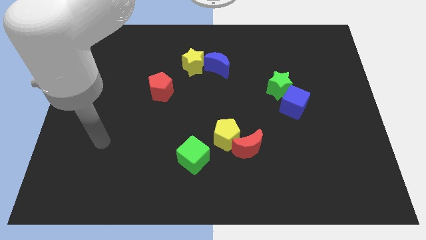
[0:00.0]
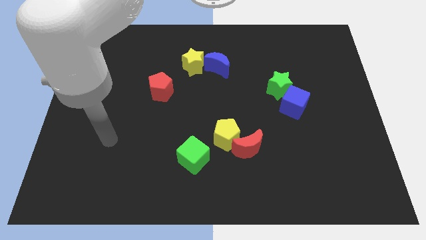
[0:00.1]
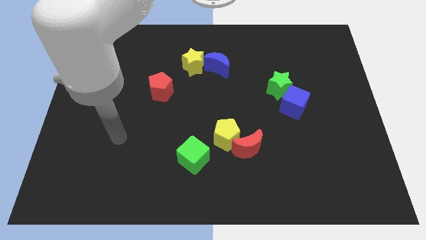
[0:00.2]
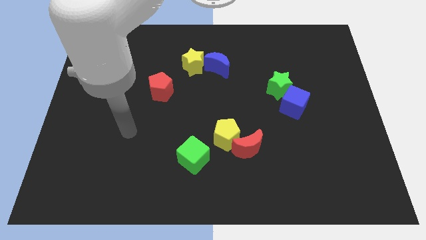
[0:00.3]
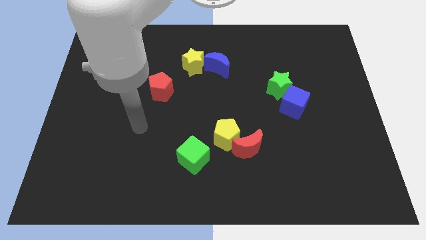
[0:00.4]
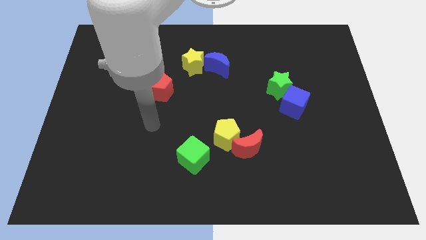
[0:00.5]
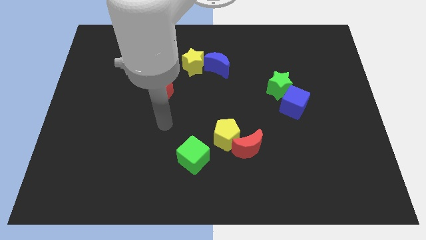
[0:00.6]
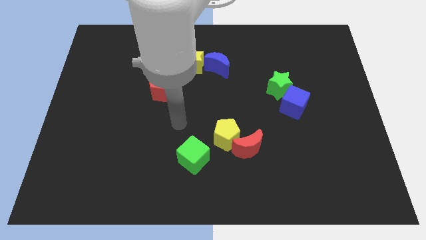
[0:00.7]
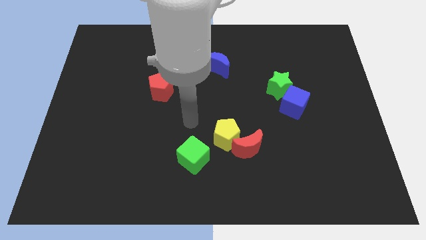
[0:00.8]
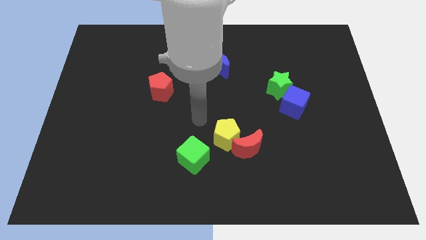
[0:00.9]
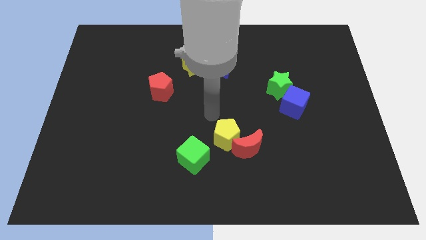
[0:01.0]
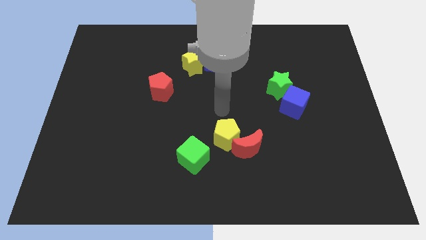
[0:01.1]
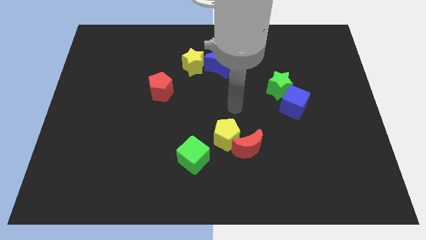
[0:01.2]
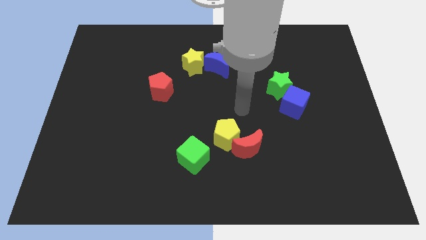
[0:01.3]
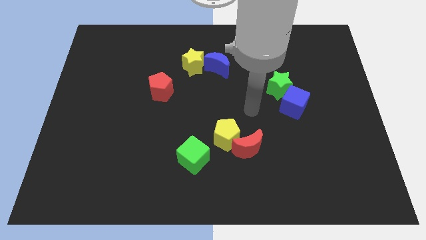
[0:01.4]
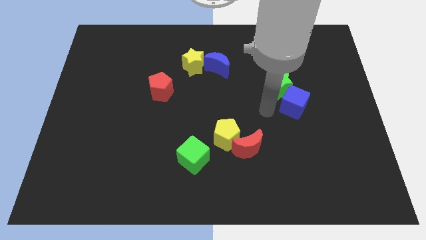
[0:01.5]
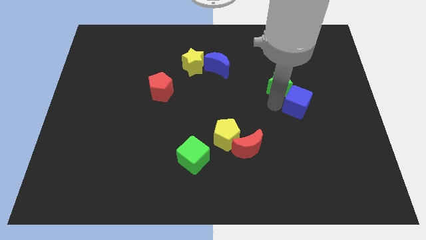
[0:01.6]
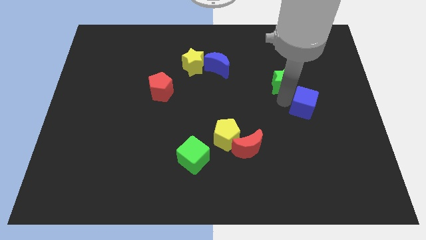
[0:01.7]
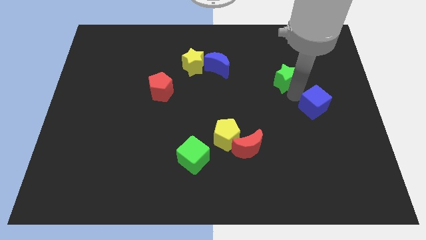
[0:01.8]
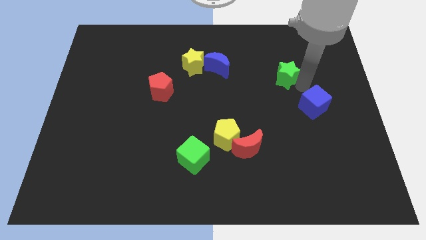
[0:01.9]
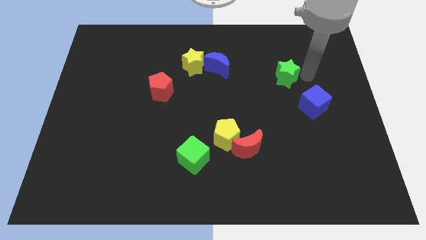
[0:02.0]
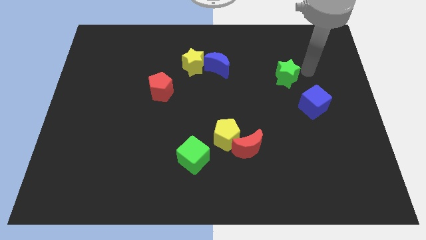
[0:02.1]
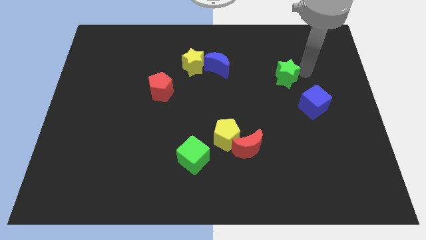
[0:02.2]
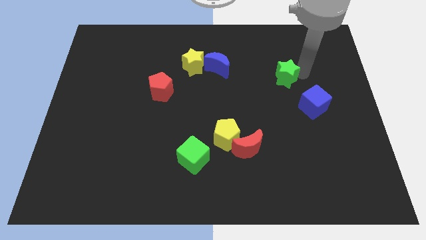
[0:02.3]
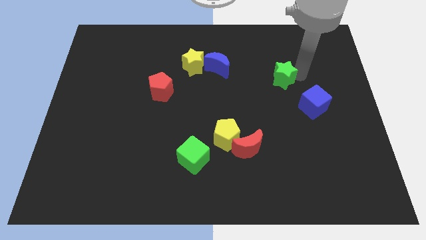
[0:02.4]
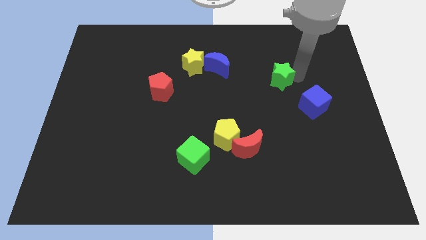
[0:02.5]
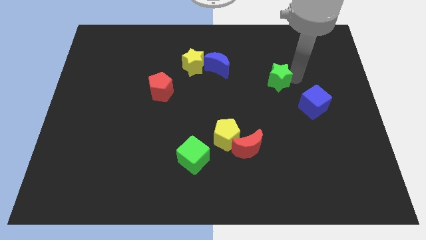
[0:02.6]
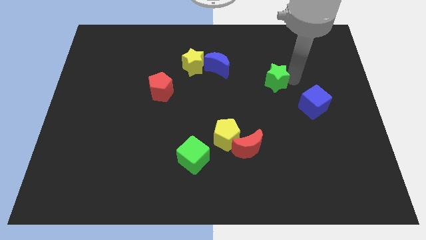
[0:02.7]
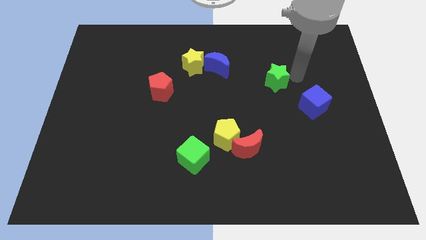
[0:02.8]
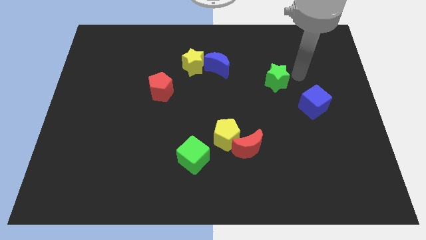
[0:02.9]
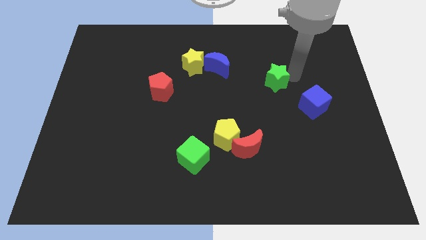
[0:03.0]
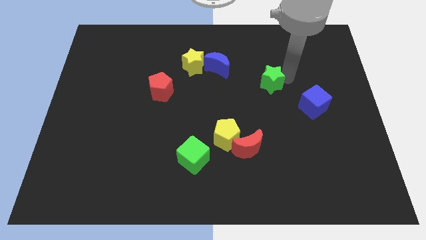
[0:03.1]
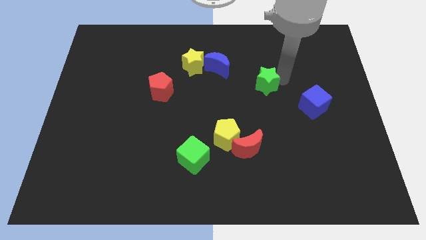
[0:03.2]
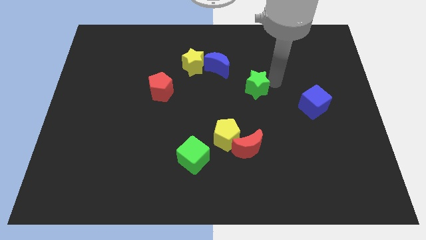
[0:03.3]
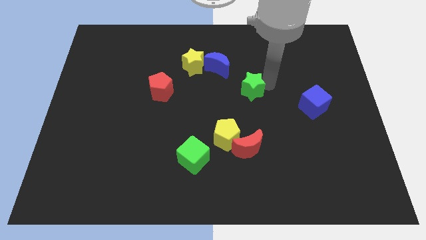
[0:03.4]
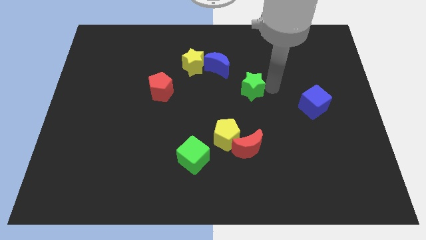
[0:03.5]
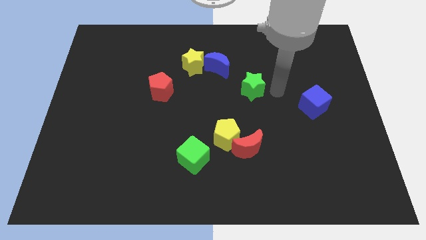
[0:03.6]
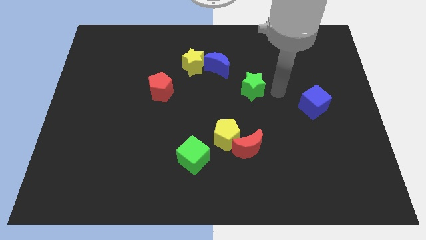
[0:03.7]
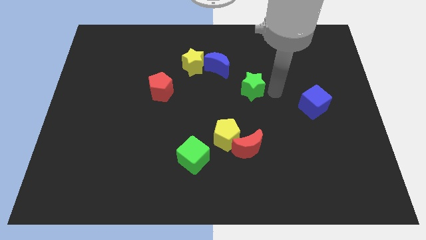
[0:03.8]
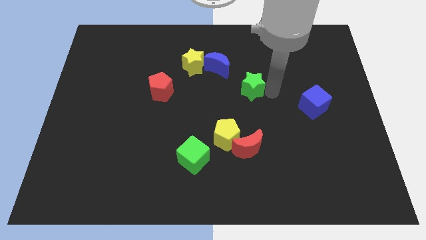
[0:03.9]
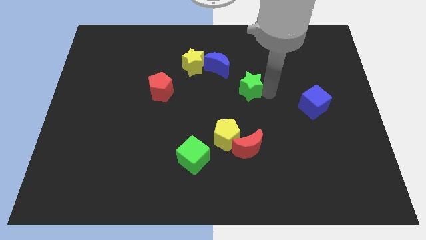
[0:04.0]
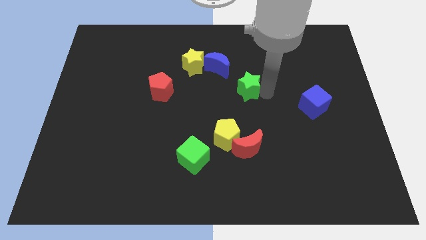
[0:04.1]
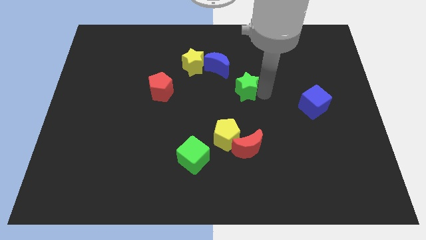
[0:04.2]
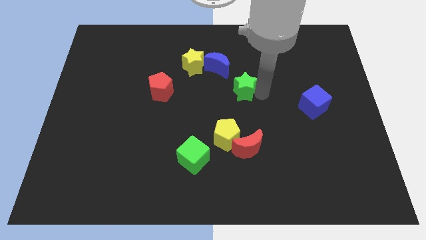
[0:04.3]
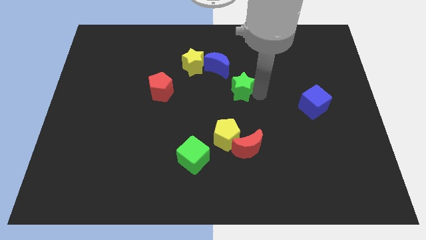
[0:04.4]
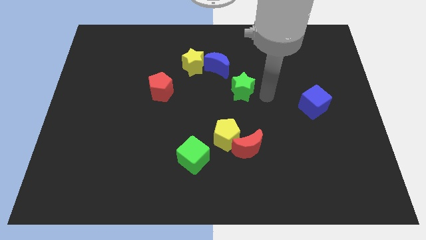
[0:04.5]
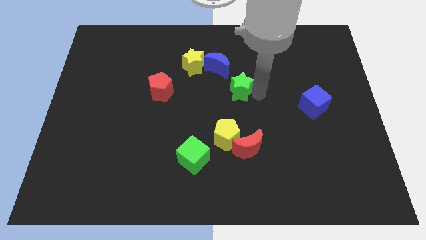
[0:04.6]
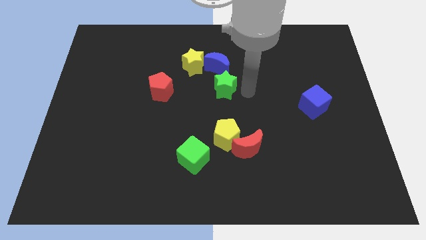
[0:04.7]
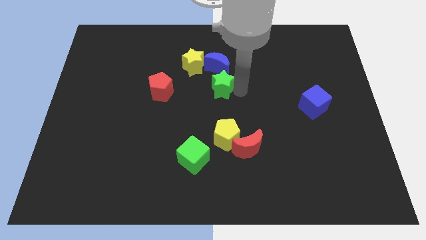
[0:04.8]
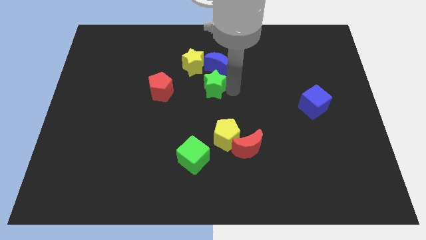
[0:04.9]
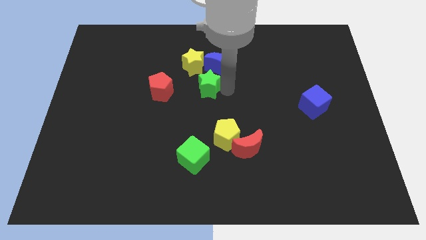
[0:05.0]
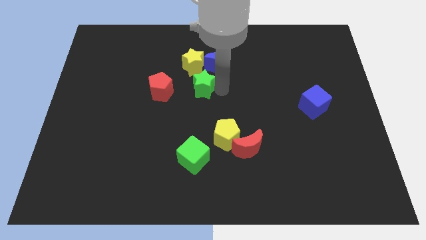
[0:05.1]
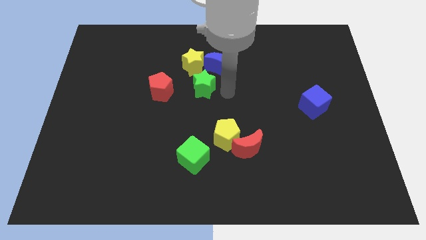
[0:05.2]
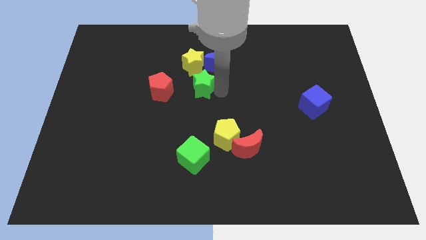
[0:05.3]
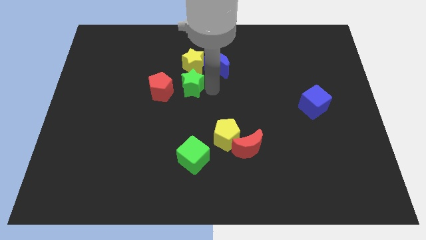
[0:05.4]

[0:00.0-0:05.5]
slide the green star diagonally down and to the left of the yellow star

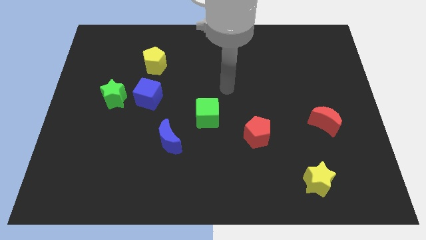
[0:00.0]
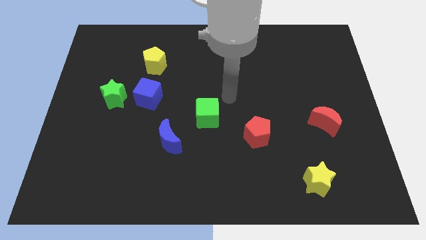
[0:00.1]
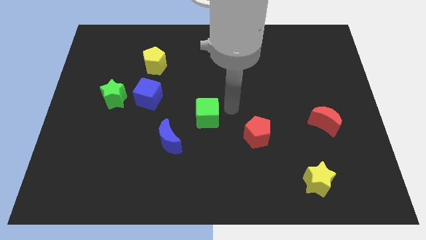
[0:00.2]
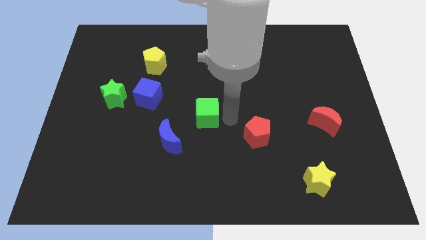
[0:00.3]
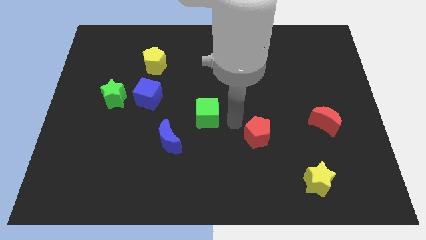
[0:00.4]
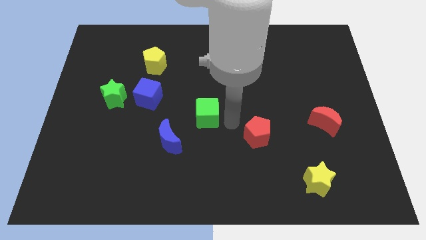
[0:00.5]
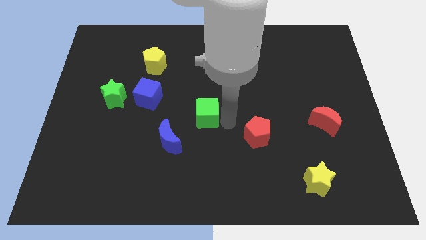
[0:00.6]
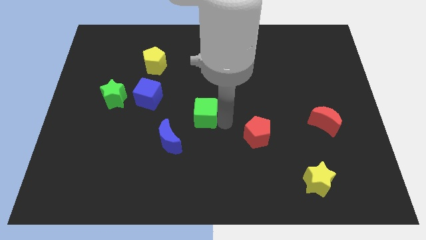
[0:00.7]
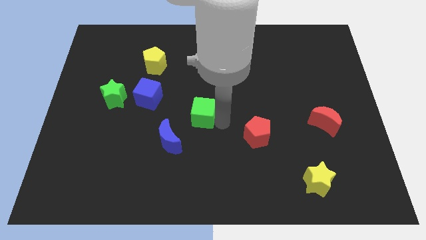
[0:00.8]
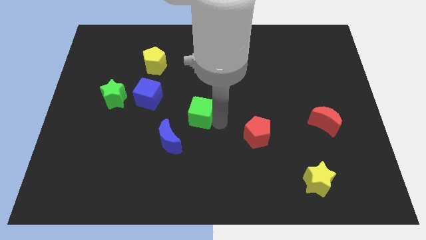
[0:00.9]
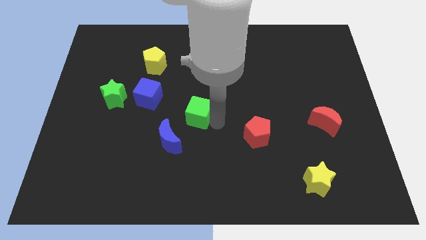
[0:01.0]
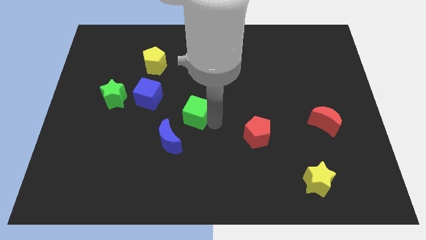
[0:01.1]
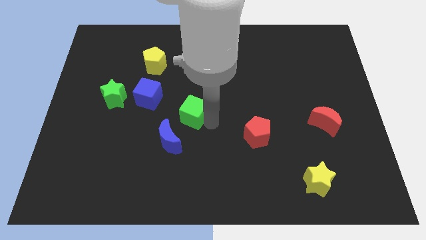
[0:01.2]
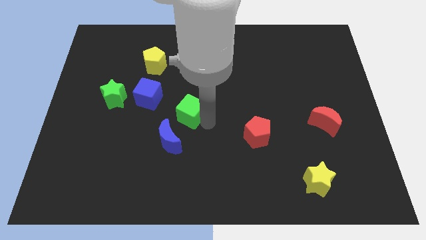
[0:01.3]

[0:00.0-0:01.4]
move the green cube to the top of the blue moon
